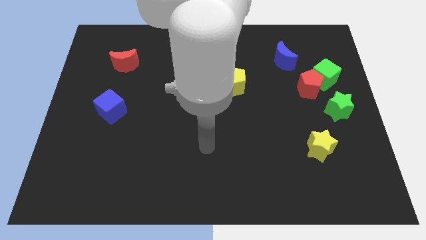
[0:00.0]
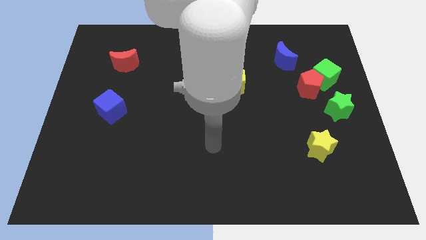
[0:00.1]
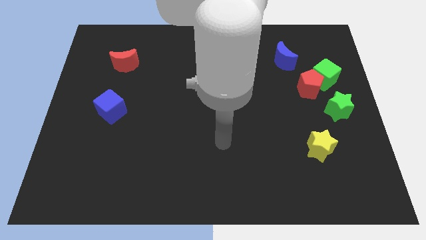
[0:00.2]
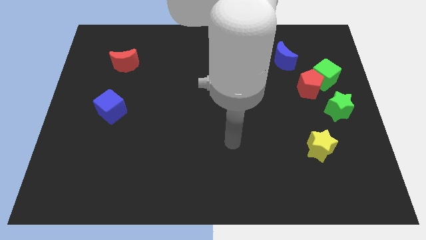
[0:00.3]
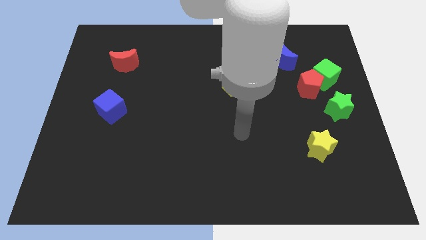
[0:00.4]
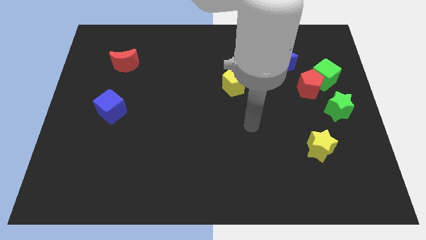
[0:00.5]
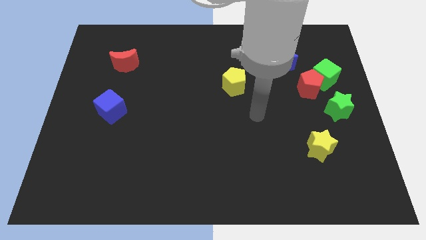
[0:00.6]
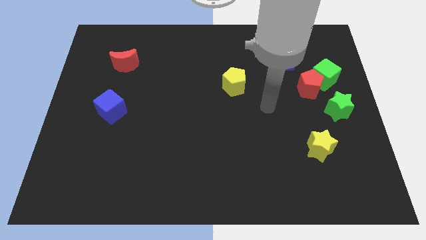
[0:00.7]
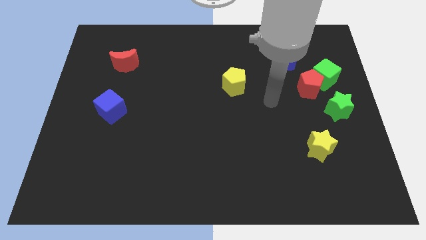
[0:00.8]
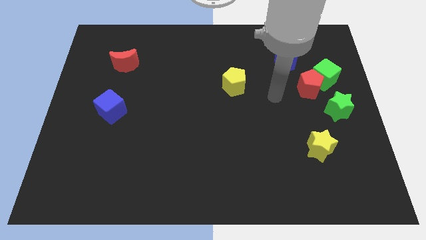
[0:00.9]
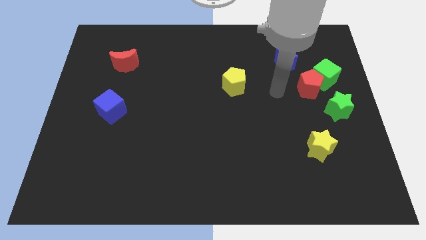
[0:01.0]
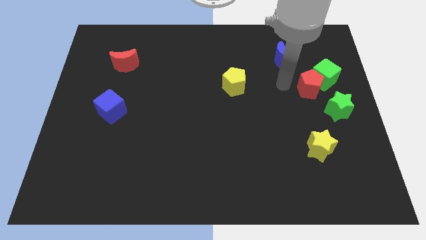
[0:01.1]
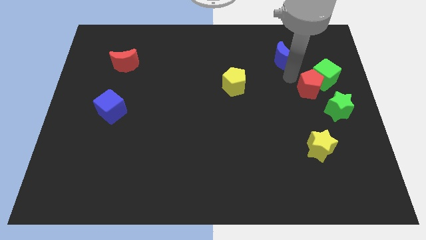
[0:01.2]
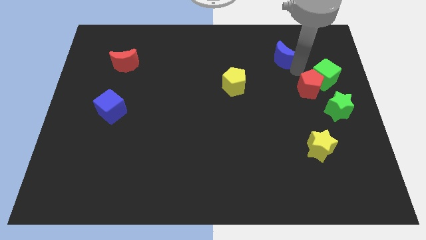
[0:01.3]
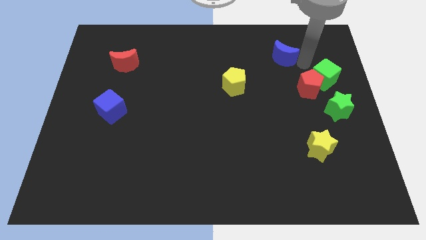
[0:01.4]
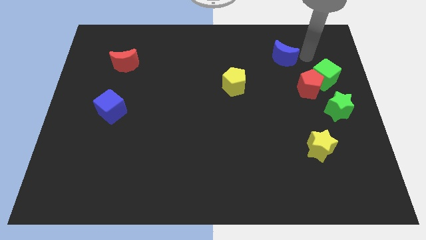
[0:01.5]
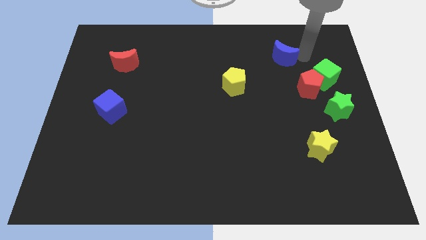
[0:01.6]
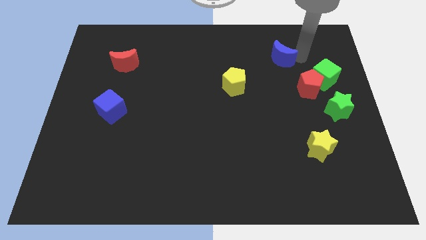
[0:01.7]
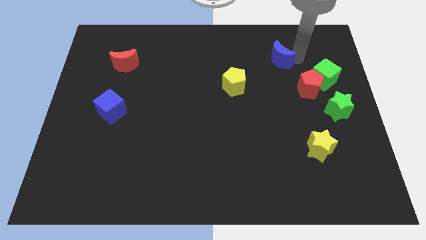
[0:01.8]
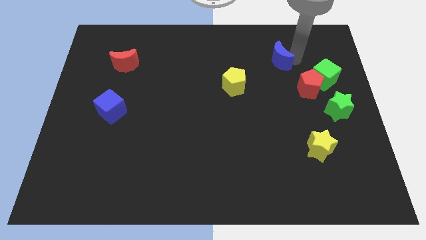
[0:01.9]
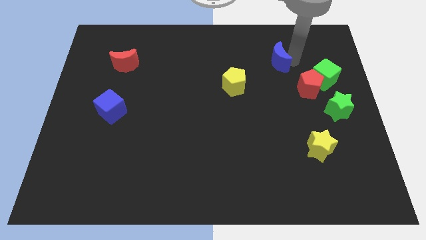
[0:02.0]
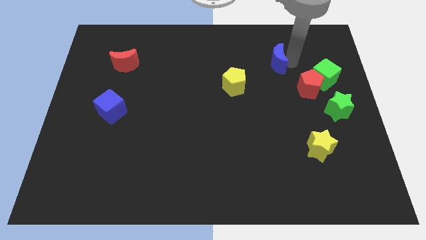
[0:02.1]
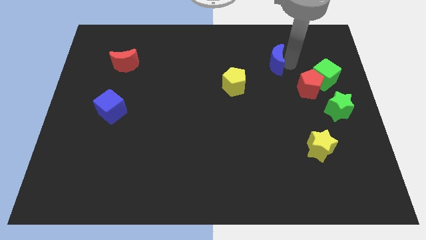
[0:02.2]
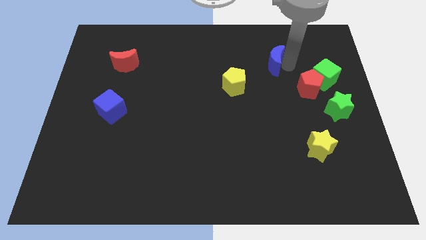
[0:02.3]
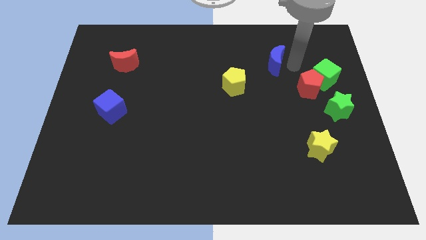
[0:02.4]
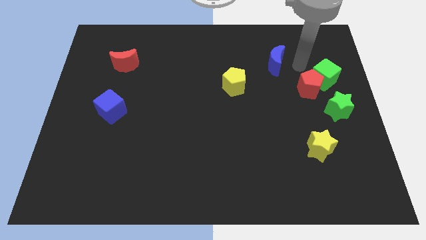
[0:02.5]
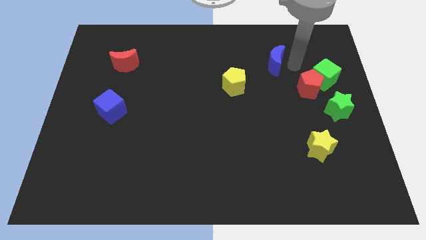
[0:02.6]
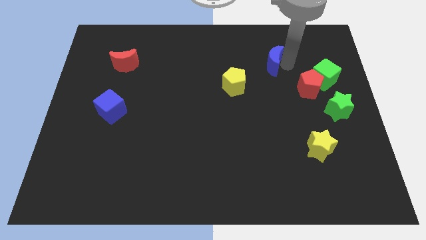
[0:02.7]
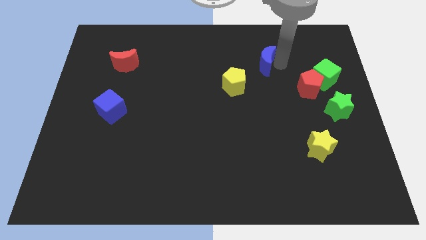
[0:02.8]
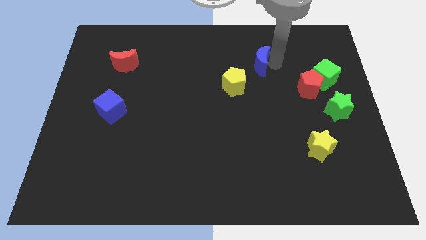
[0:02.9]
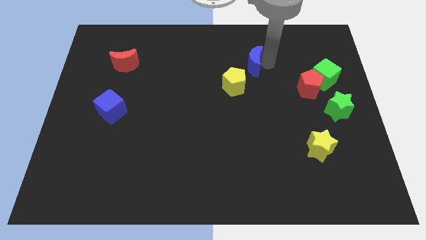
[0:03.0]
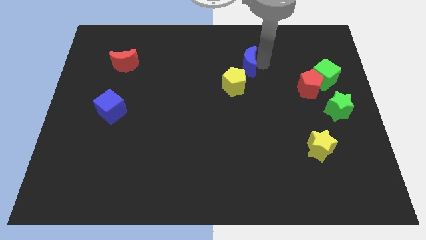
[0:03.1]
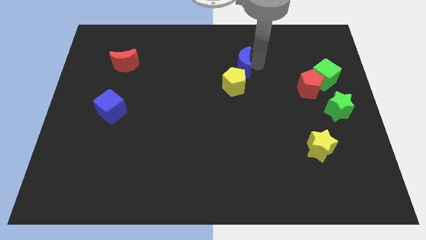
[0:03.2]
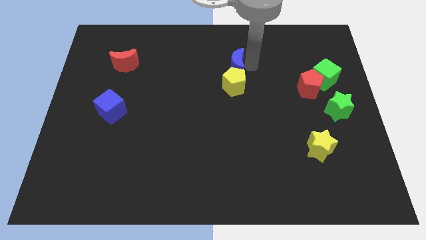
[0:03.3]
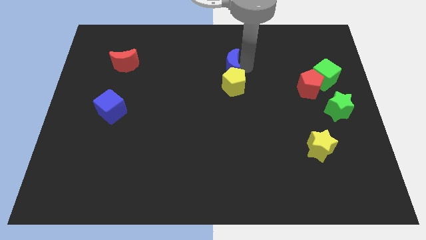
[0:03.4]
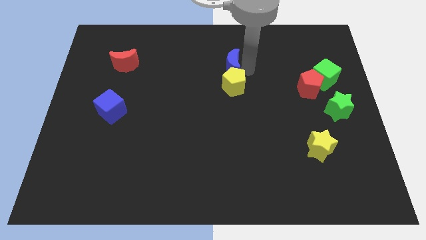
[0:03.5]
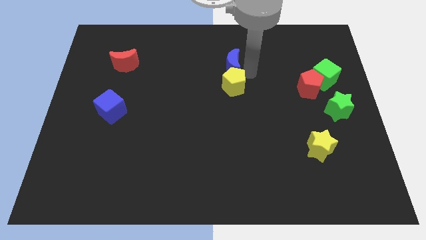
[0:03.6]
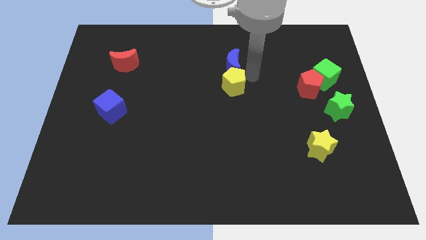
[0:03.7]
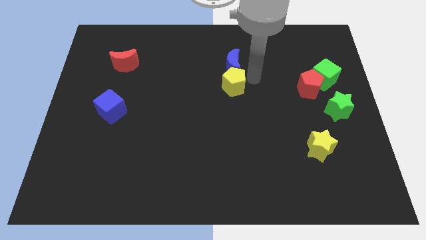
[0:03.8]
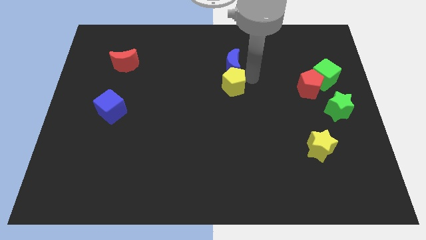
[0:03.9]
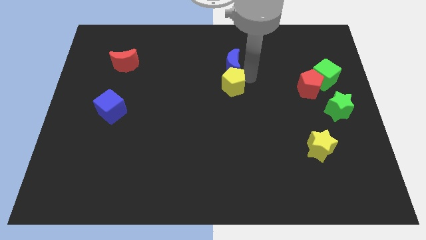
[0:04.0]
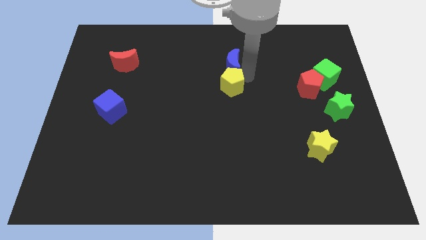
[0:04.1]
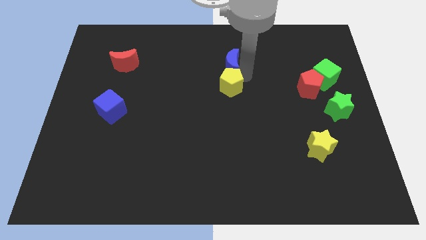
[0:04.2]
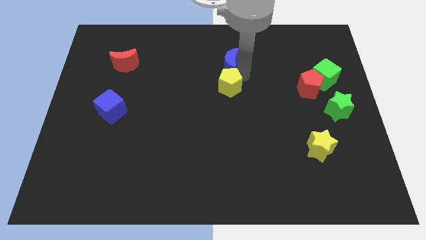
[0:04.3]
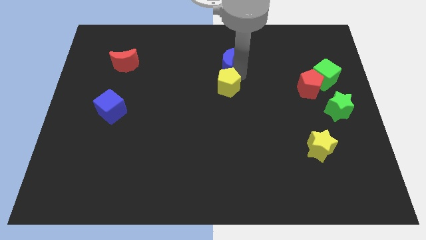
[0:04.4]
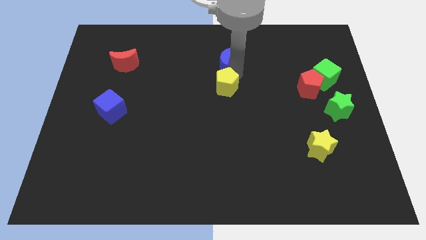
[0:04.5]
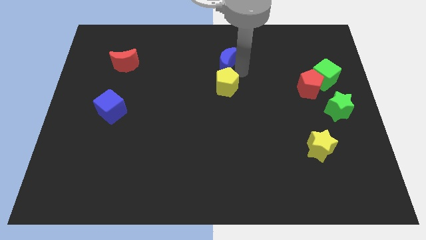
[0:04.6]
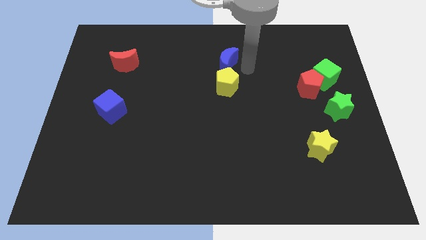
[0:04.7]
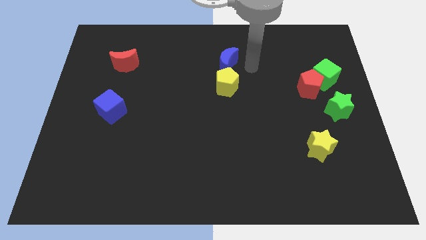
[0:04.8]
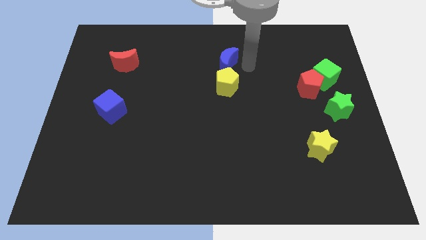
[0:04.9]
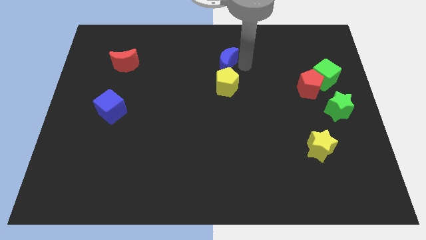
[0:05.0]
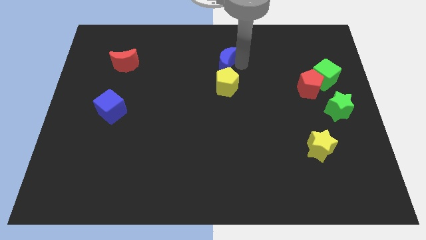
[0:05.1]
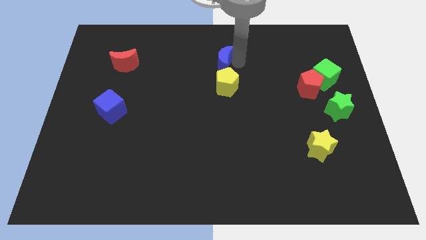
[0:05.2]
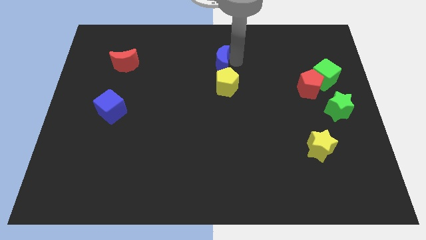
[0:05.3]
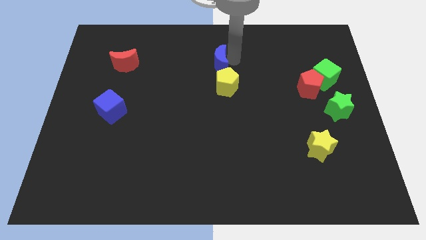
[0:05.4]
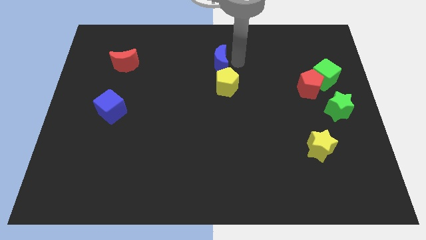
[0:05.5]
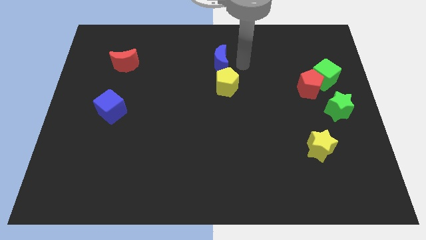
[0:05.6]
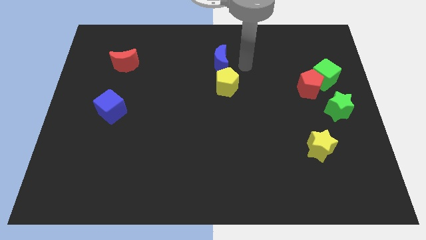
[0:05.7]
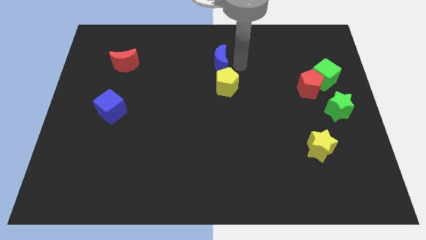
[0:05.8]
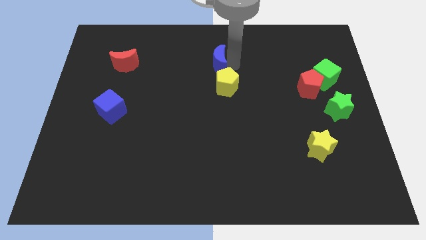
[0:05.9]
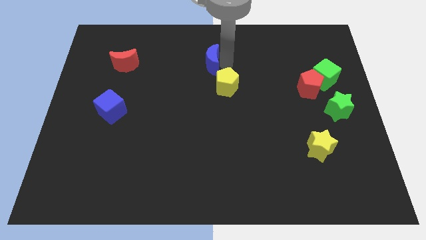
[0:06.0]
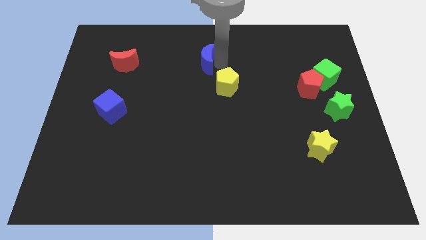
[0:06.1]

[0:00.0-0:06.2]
push the blue moon to the left

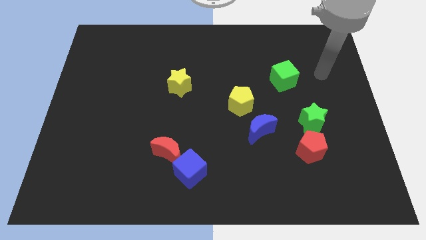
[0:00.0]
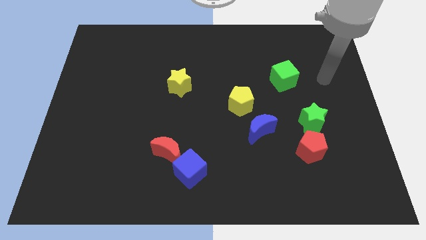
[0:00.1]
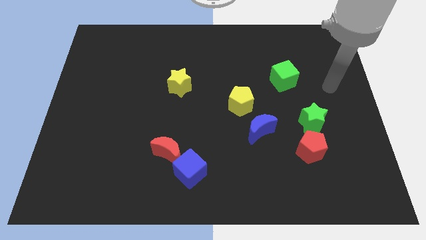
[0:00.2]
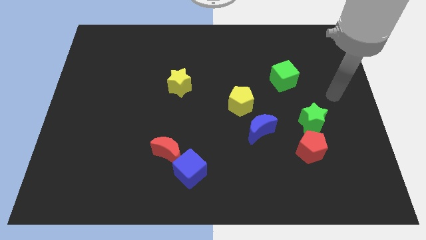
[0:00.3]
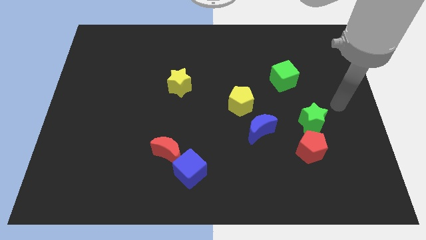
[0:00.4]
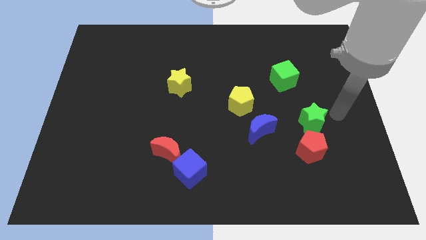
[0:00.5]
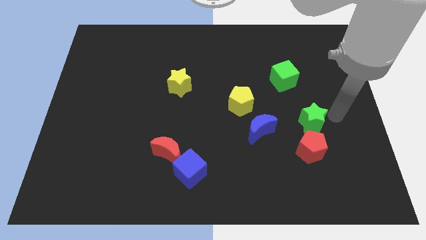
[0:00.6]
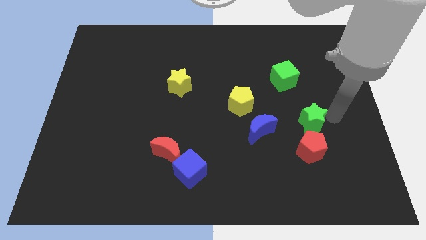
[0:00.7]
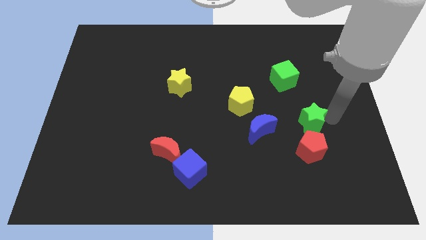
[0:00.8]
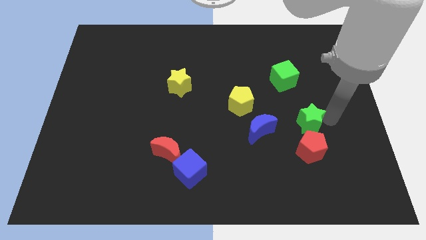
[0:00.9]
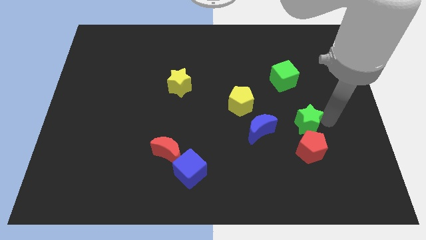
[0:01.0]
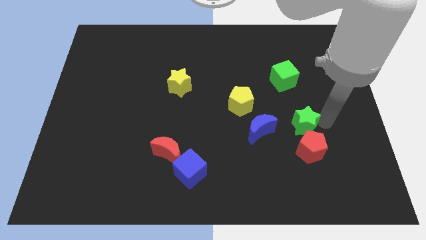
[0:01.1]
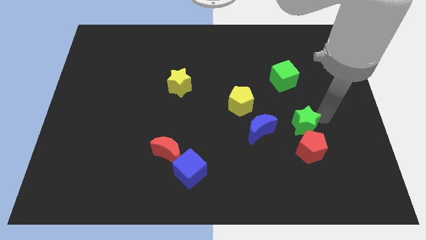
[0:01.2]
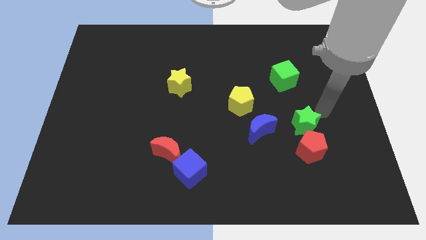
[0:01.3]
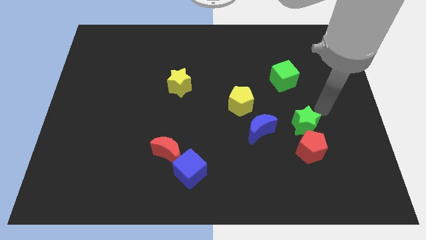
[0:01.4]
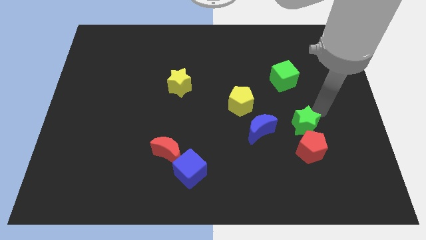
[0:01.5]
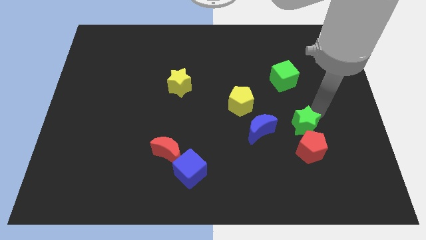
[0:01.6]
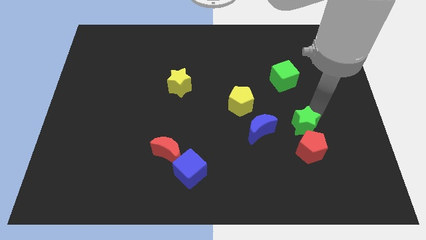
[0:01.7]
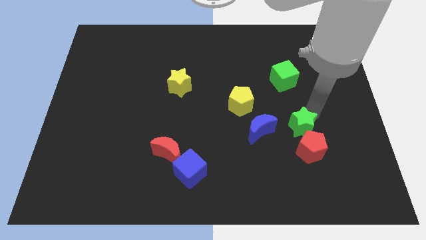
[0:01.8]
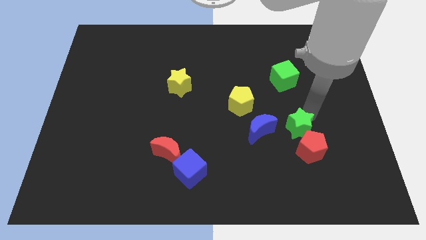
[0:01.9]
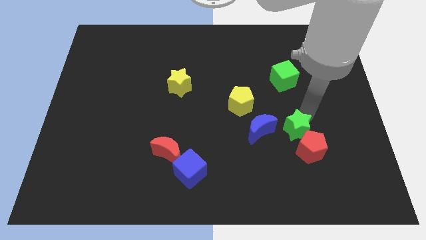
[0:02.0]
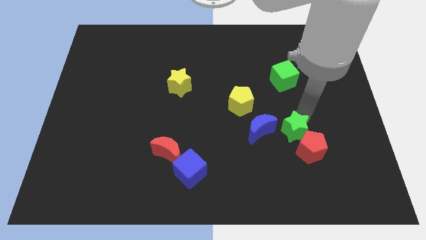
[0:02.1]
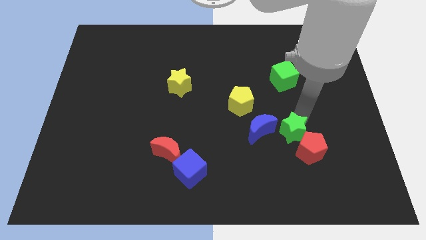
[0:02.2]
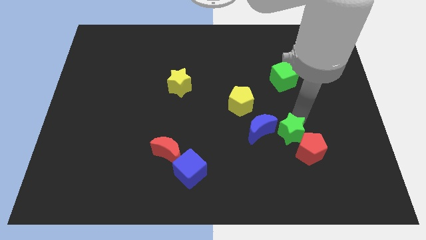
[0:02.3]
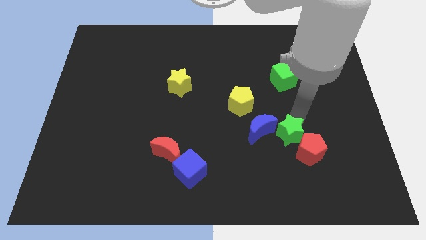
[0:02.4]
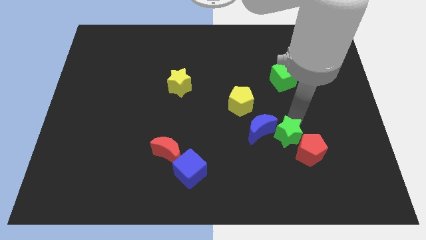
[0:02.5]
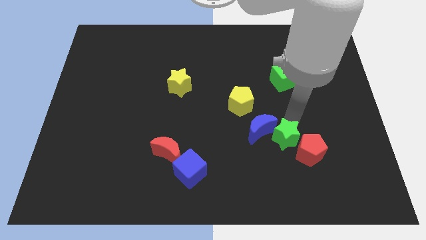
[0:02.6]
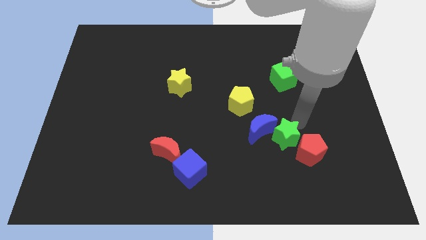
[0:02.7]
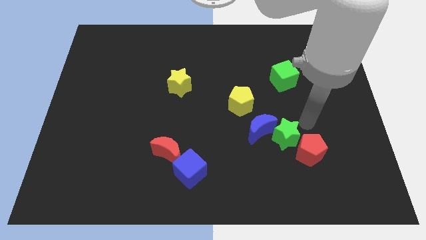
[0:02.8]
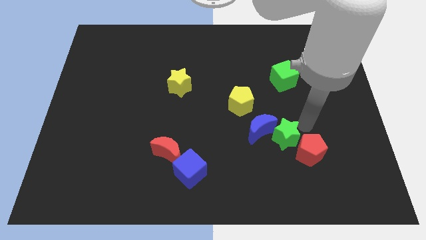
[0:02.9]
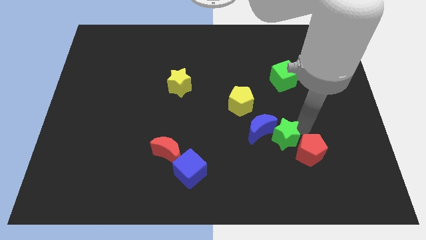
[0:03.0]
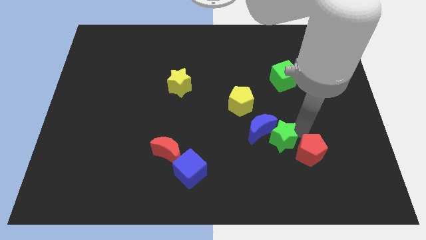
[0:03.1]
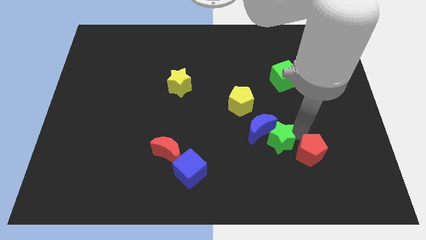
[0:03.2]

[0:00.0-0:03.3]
push the green star somewhat to the left
